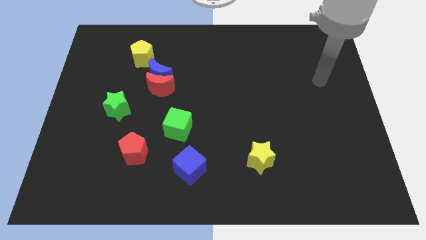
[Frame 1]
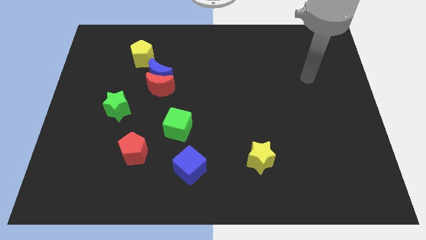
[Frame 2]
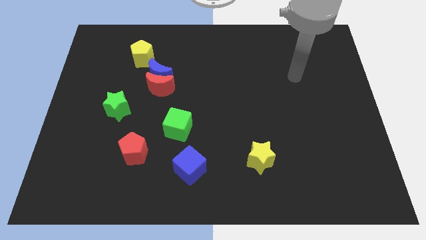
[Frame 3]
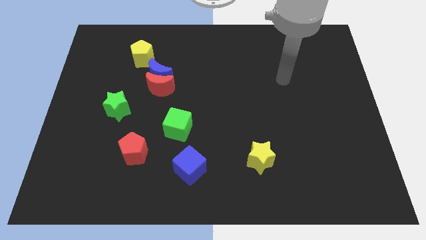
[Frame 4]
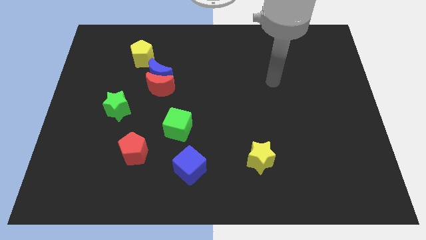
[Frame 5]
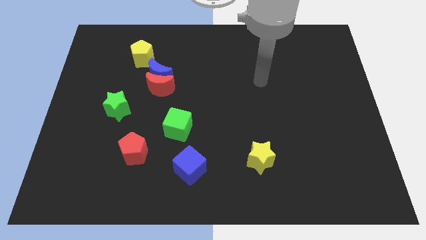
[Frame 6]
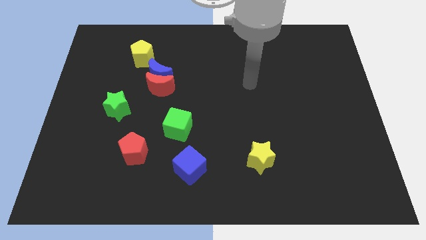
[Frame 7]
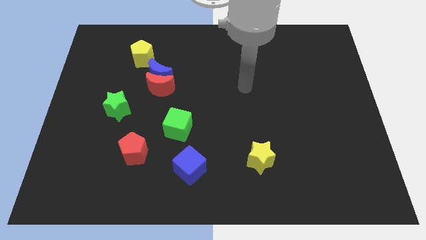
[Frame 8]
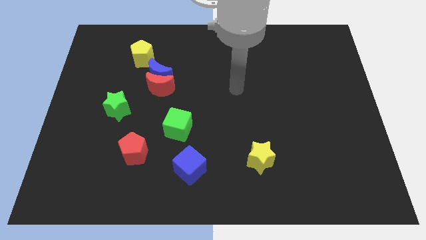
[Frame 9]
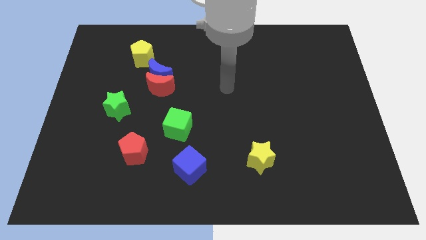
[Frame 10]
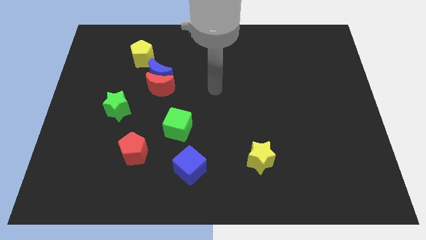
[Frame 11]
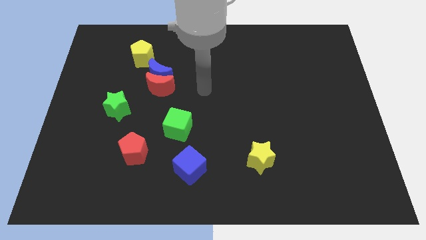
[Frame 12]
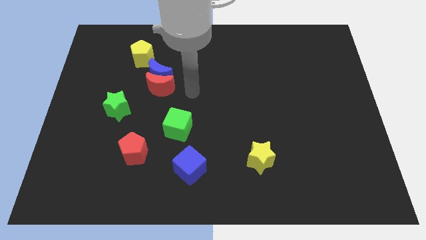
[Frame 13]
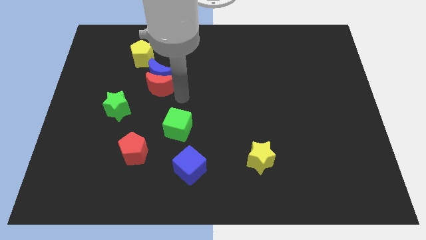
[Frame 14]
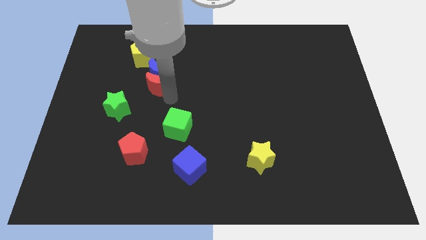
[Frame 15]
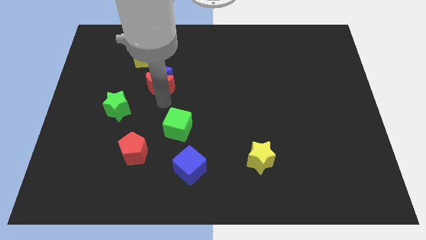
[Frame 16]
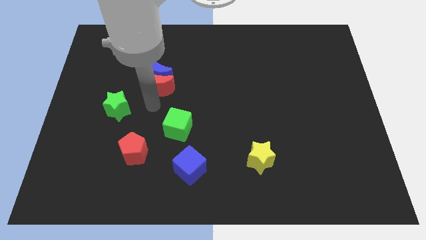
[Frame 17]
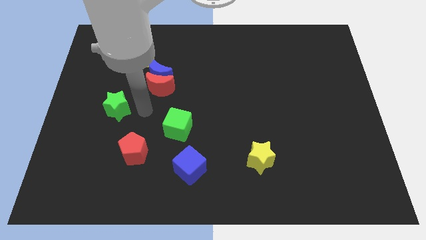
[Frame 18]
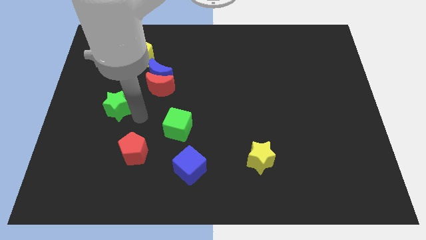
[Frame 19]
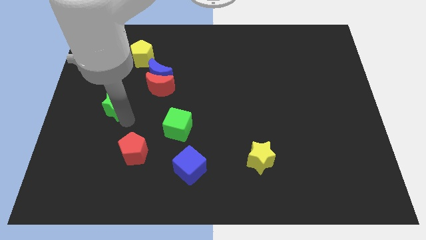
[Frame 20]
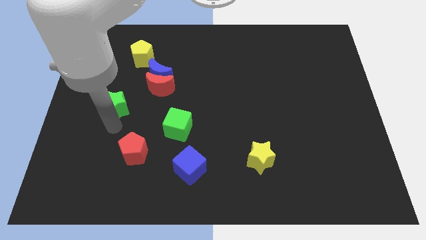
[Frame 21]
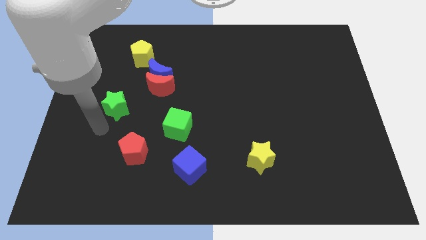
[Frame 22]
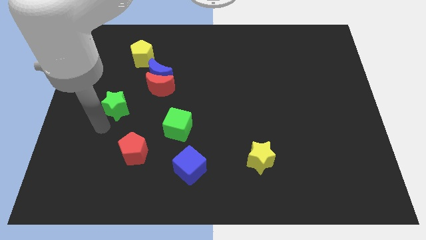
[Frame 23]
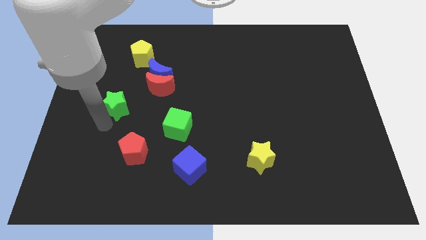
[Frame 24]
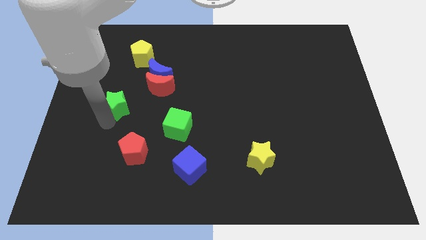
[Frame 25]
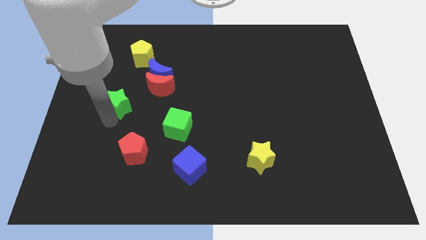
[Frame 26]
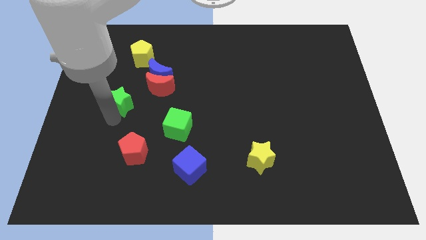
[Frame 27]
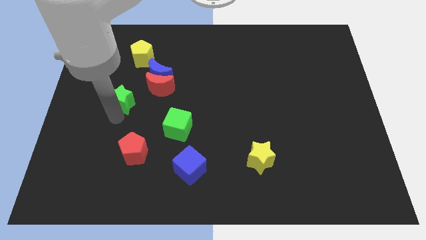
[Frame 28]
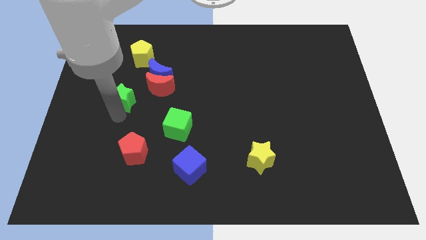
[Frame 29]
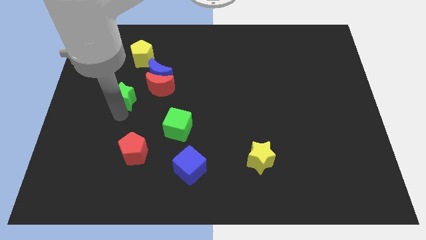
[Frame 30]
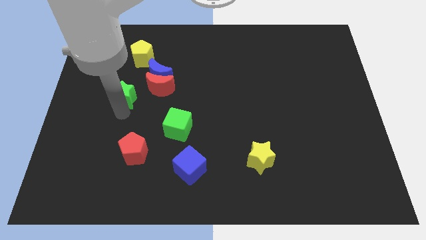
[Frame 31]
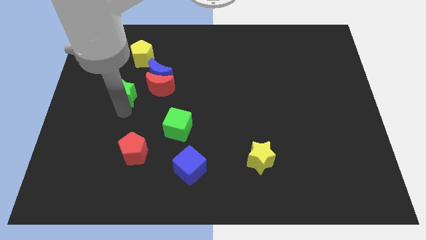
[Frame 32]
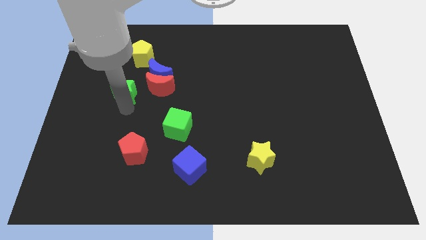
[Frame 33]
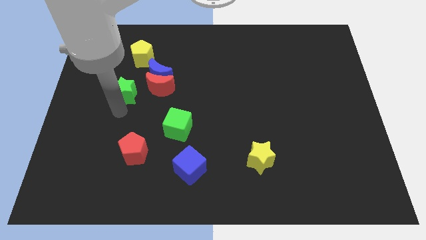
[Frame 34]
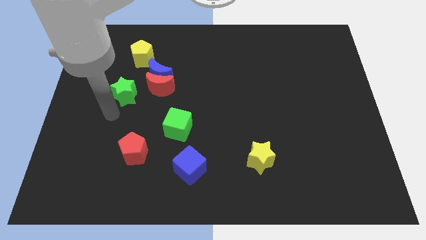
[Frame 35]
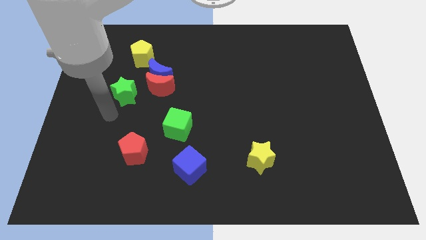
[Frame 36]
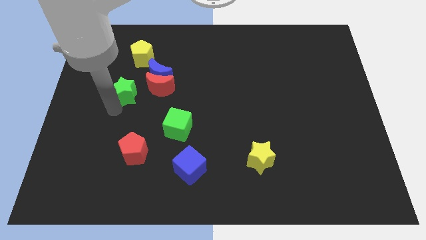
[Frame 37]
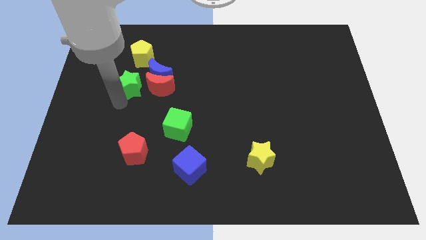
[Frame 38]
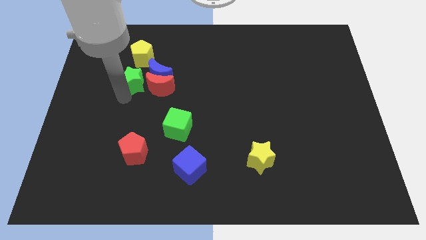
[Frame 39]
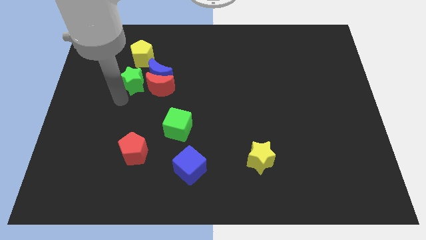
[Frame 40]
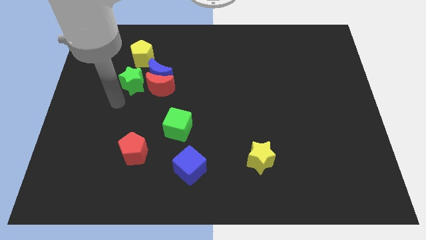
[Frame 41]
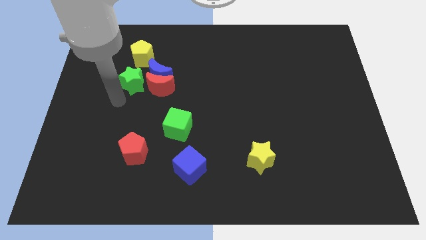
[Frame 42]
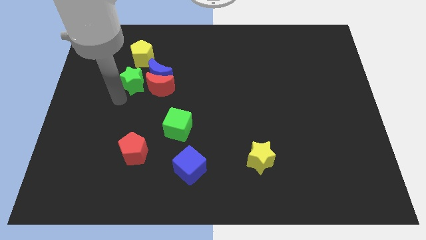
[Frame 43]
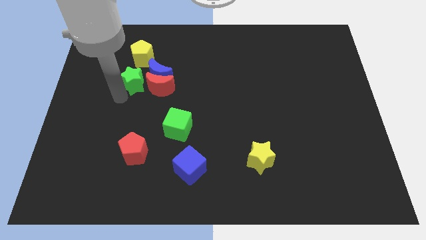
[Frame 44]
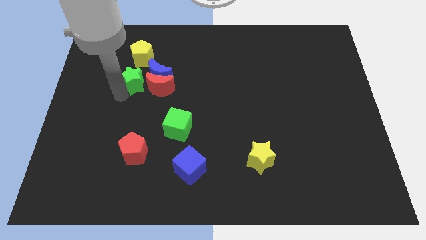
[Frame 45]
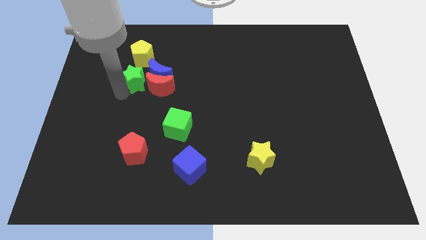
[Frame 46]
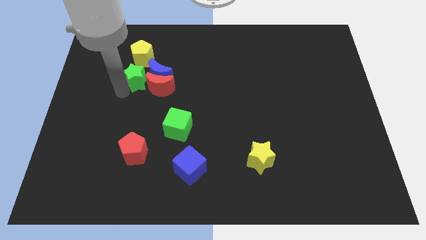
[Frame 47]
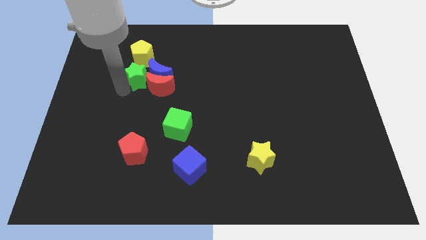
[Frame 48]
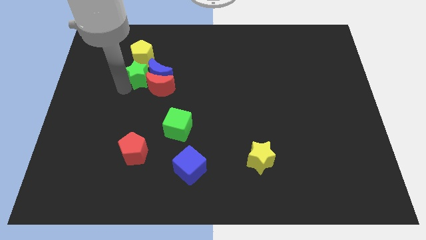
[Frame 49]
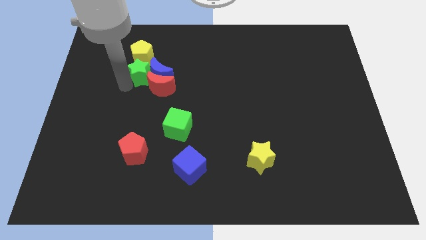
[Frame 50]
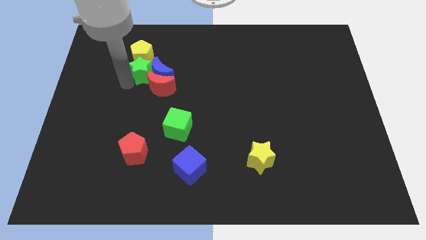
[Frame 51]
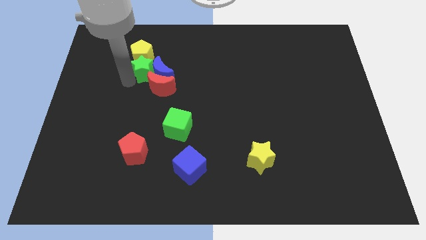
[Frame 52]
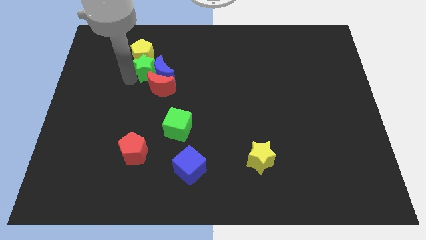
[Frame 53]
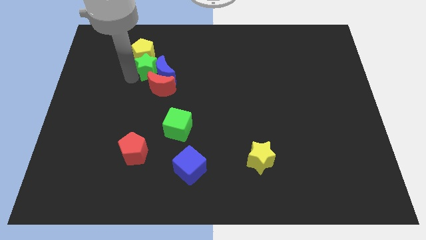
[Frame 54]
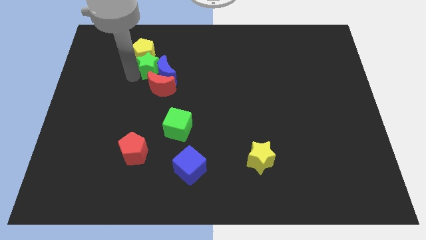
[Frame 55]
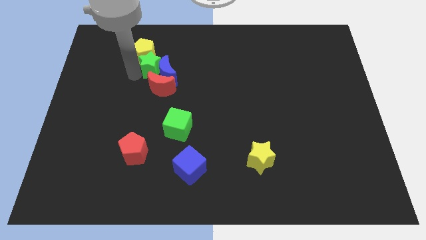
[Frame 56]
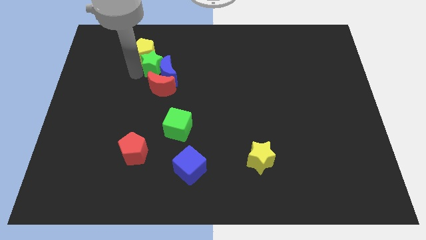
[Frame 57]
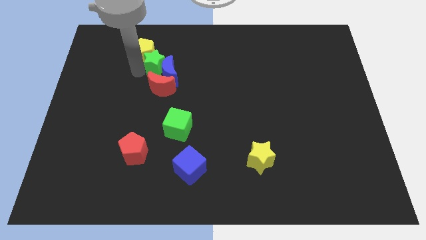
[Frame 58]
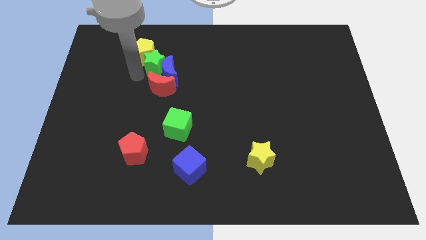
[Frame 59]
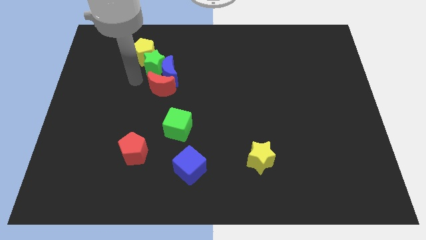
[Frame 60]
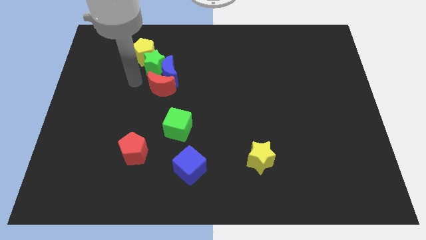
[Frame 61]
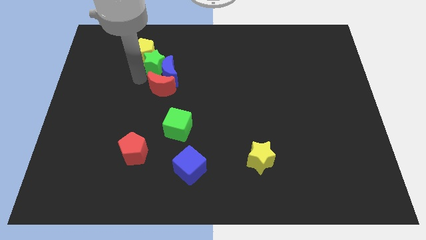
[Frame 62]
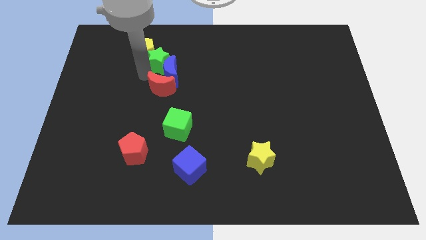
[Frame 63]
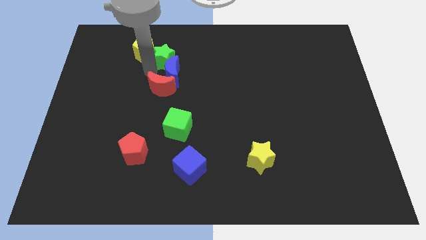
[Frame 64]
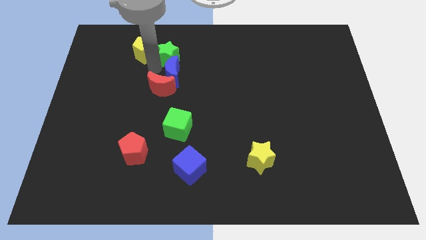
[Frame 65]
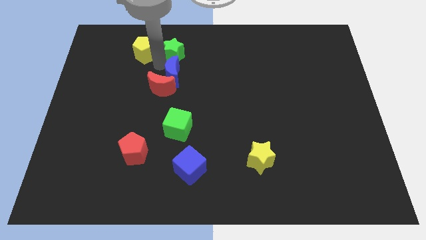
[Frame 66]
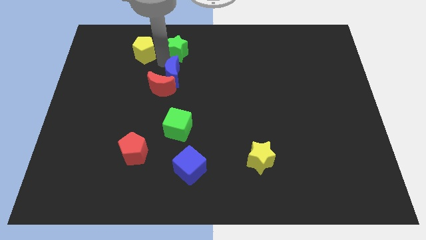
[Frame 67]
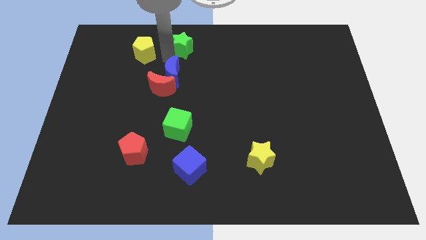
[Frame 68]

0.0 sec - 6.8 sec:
move the green star to the top
